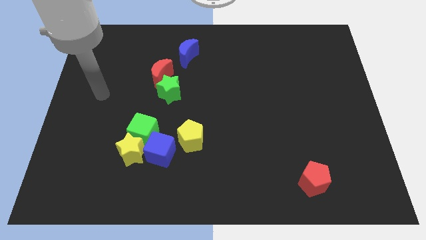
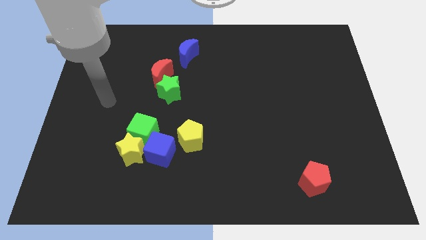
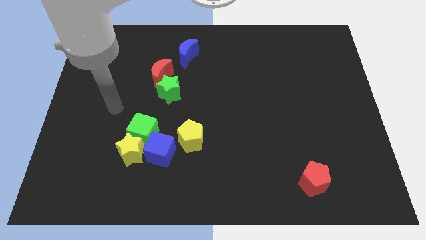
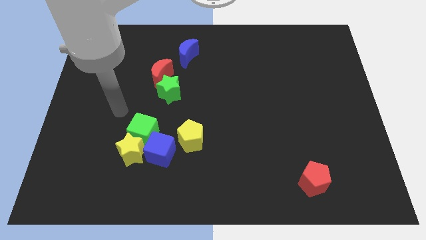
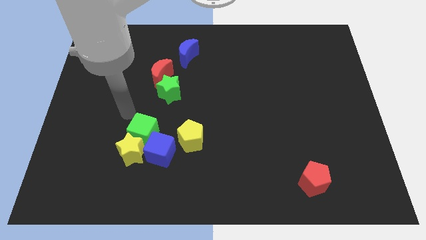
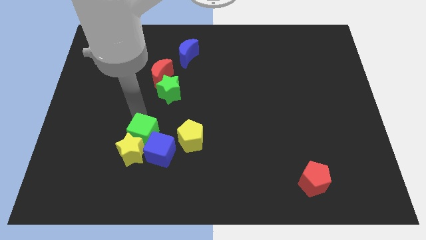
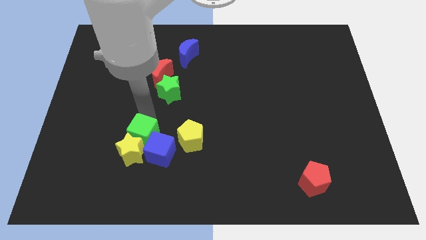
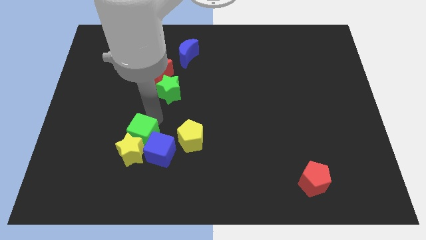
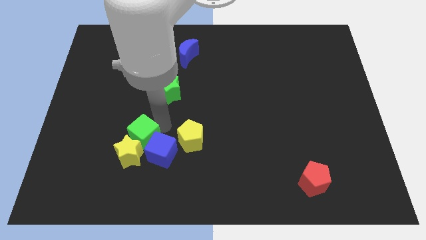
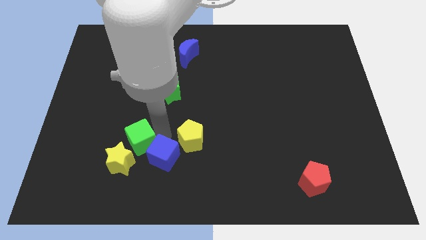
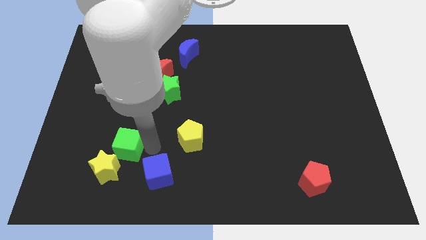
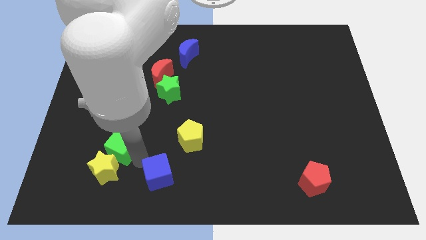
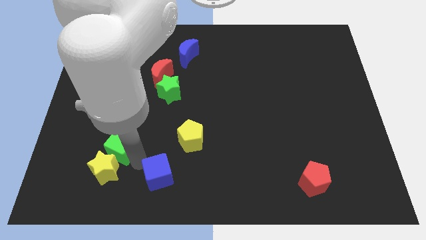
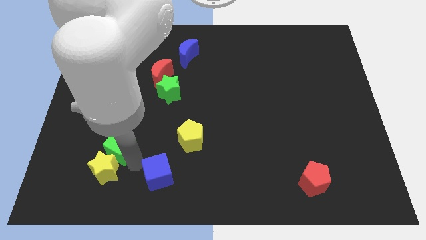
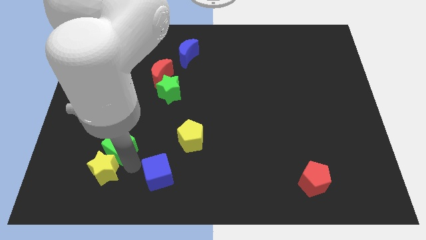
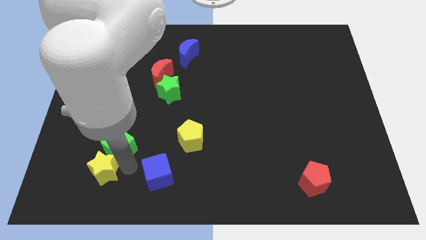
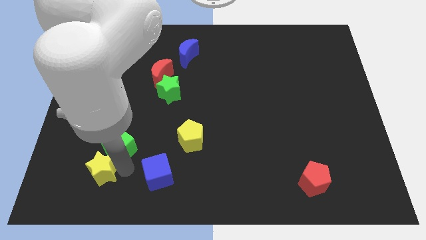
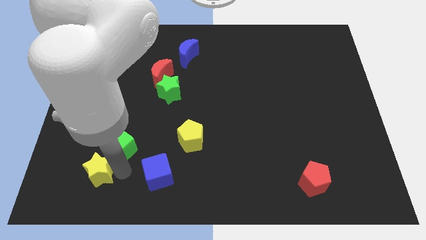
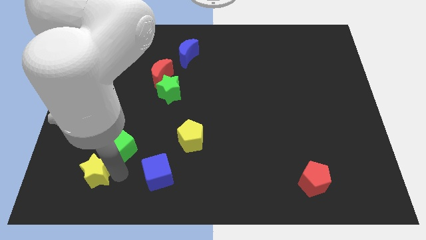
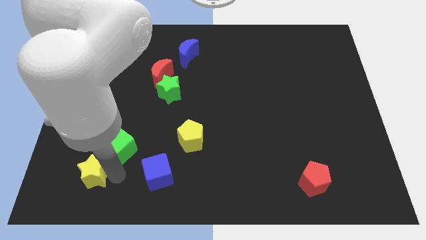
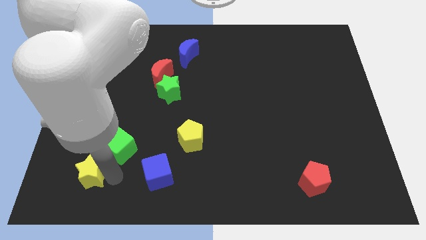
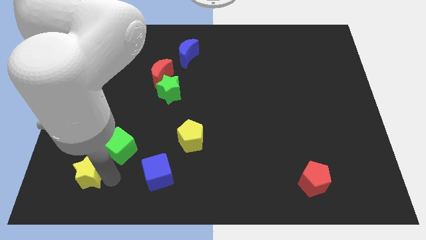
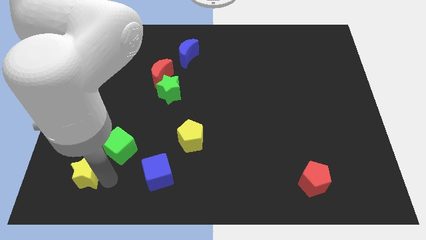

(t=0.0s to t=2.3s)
separate the yellow star from the green cube and blue cube

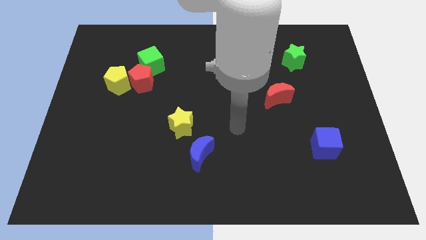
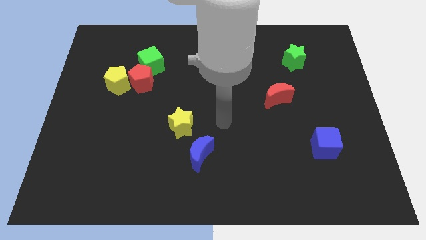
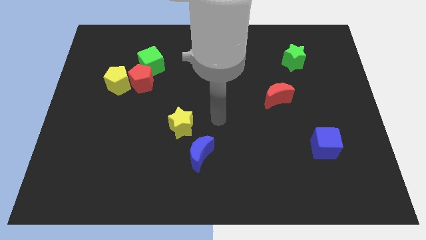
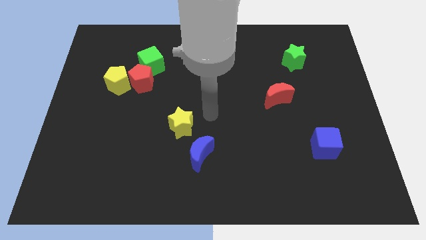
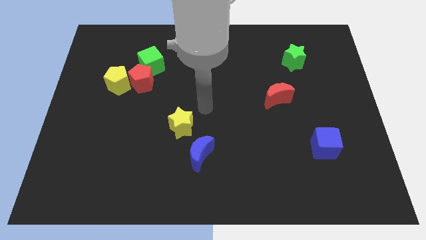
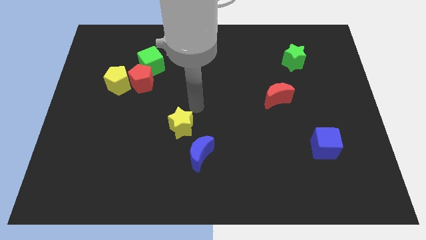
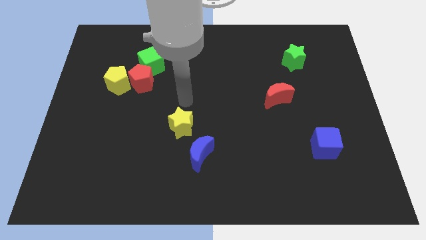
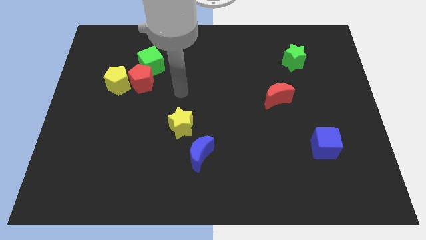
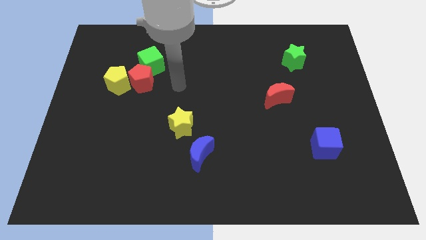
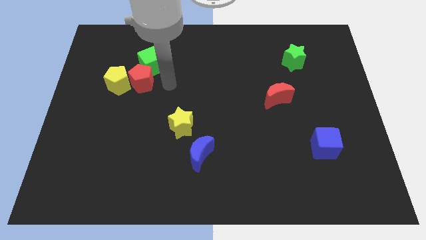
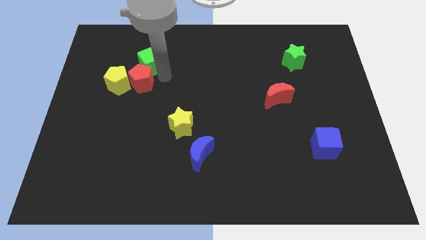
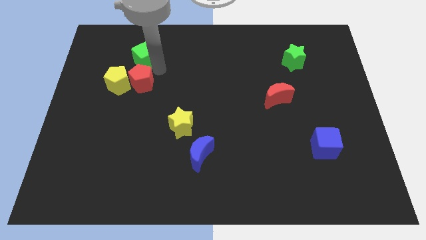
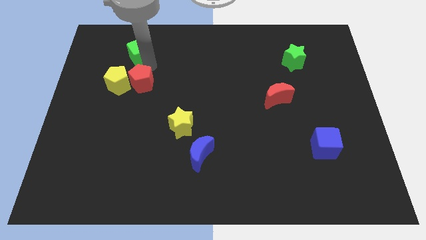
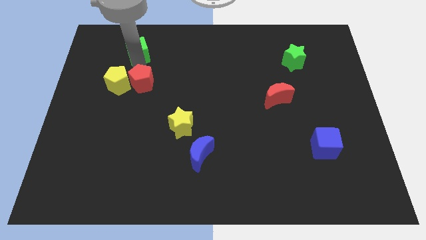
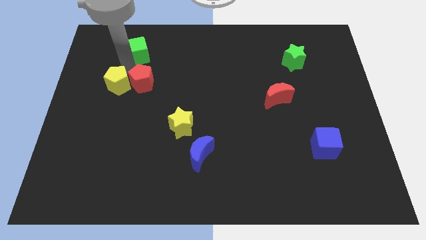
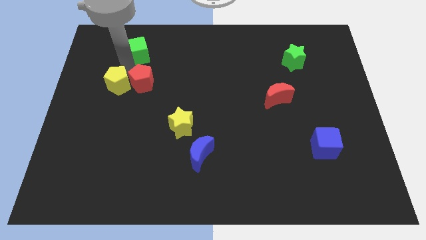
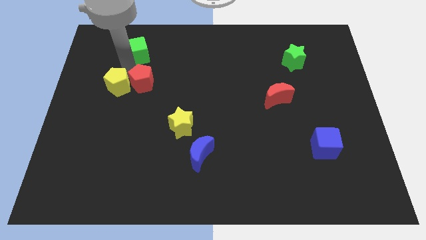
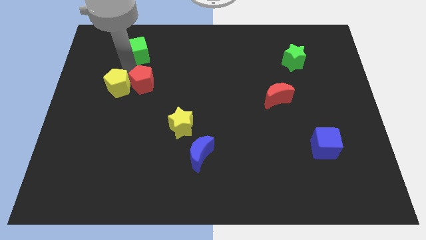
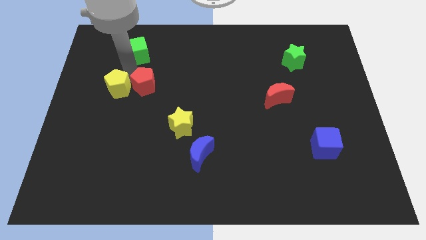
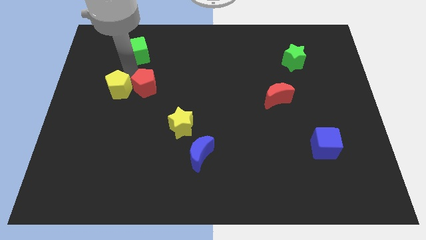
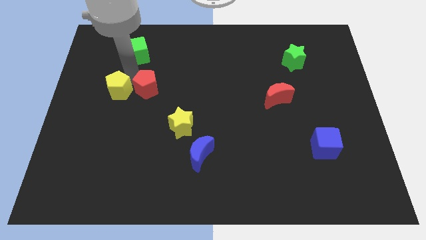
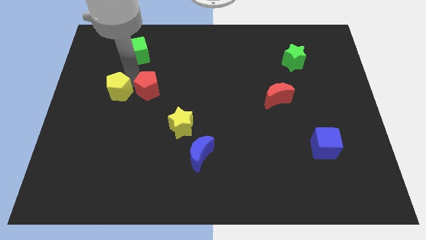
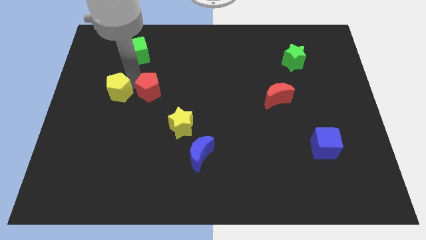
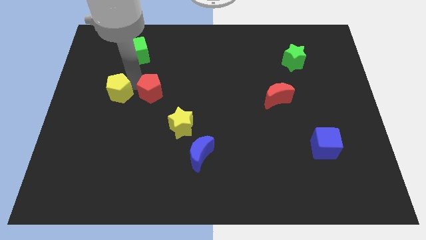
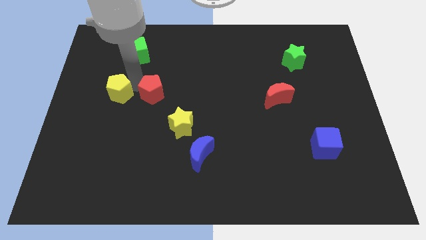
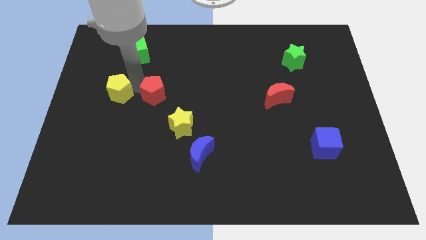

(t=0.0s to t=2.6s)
separate the red pentagon from the yellow pentagon and green cube

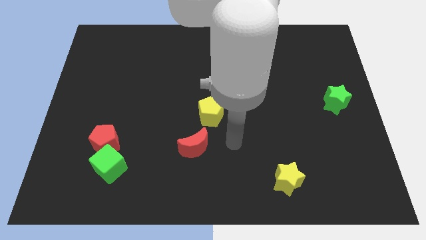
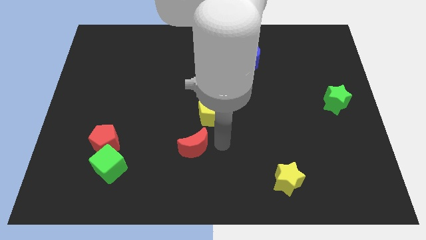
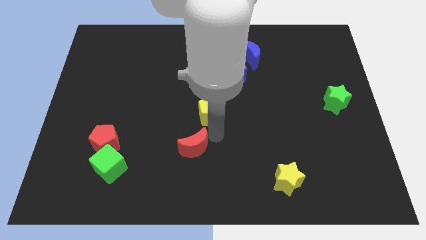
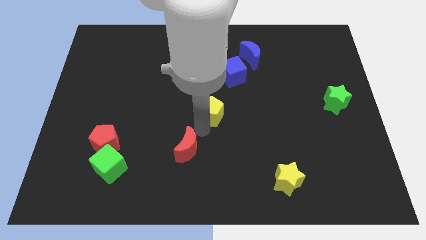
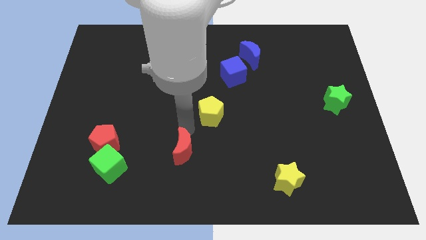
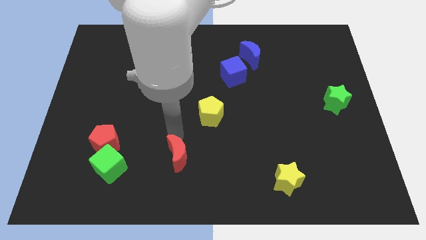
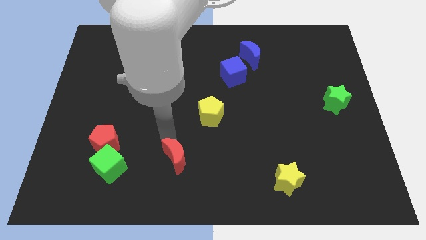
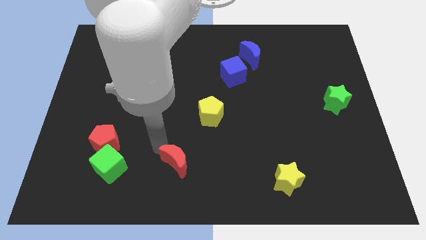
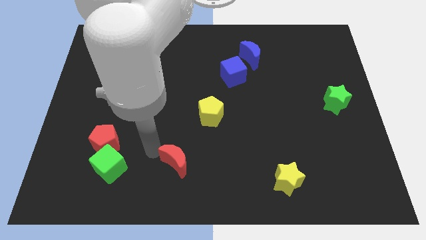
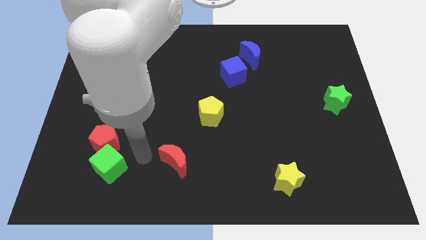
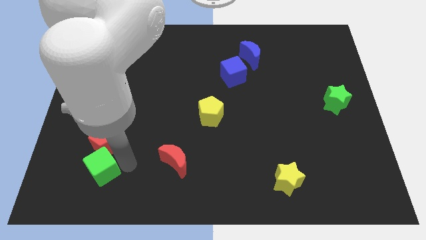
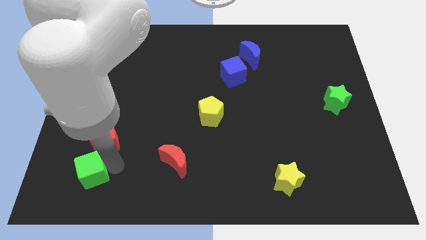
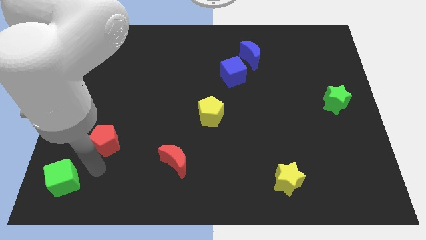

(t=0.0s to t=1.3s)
move the red pentagon away from the green cube

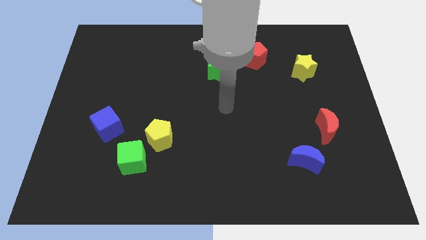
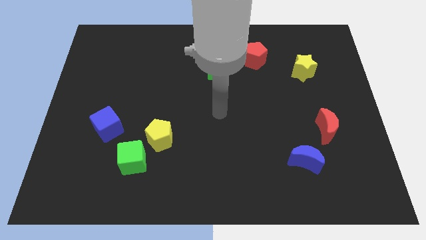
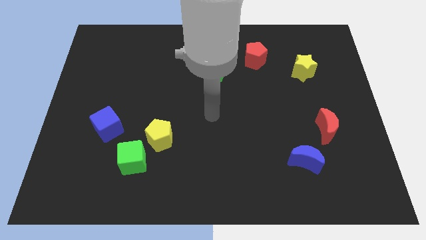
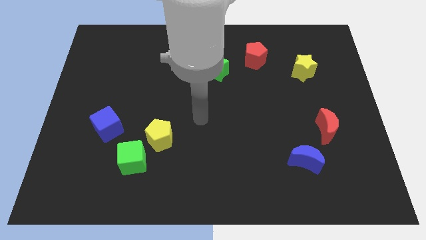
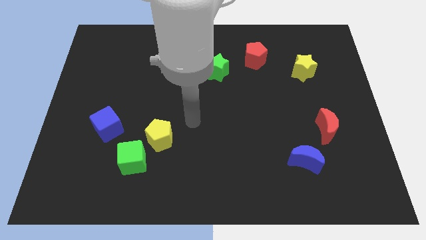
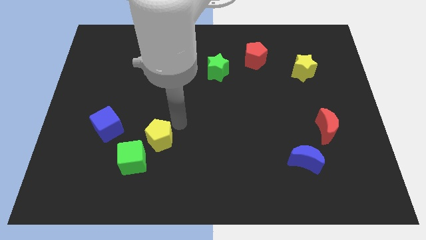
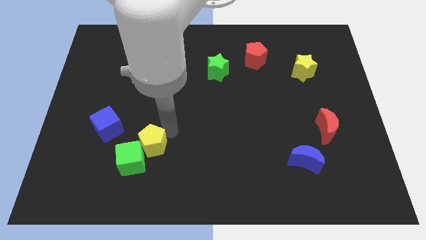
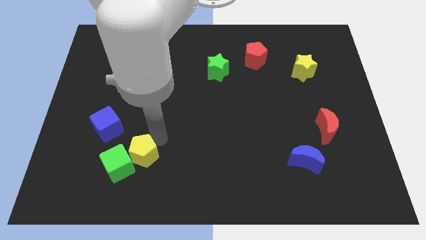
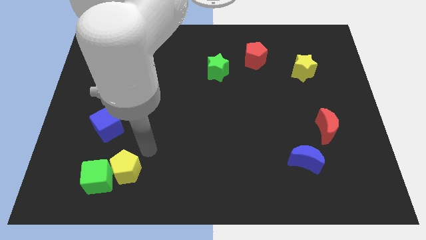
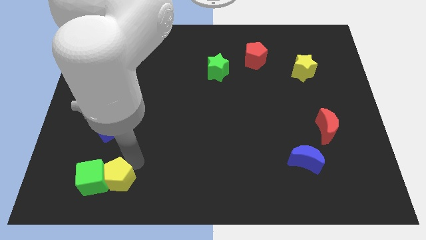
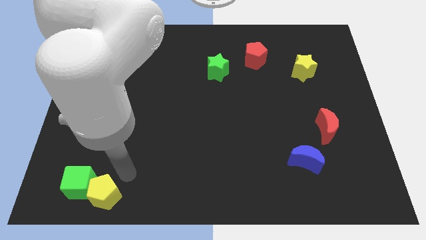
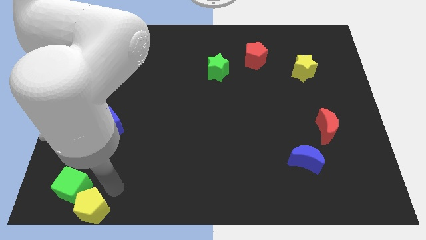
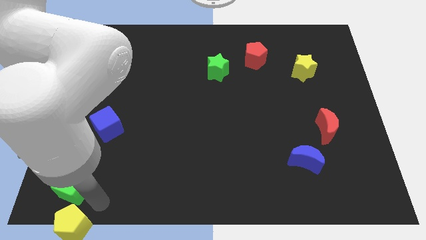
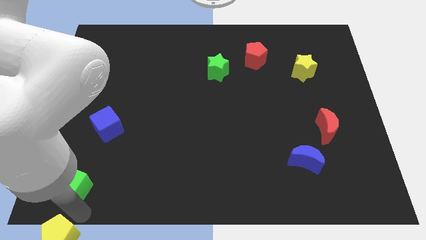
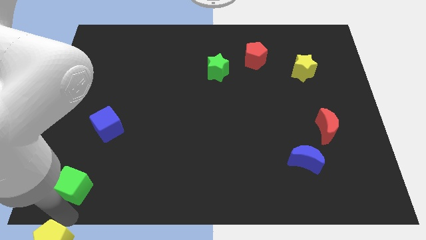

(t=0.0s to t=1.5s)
move the green cube away from the yellow pentagon

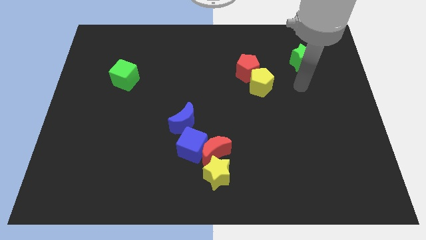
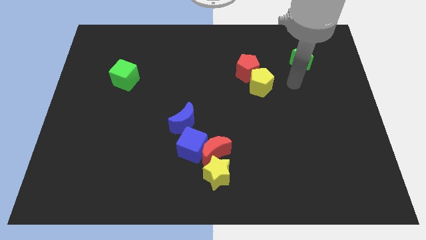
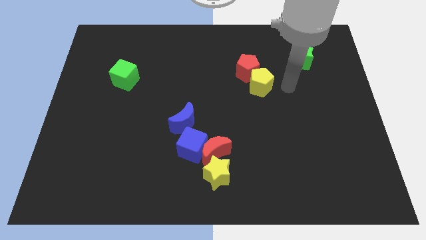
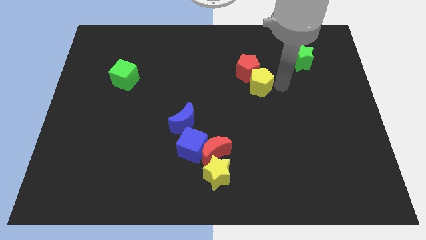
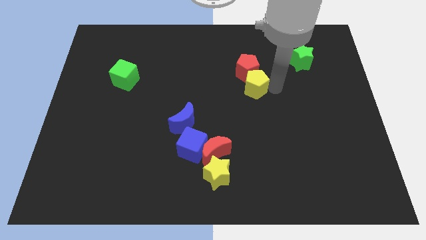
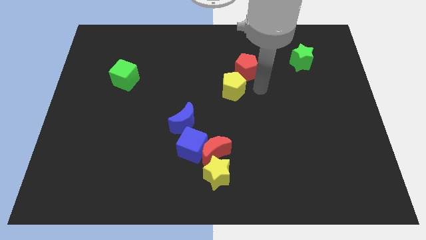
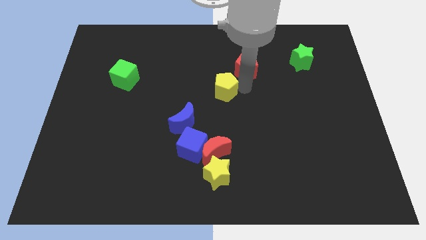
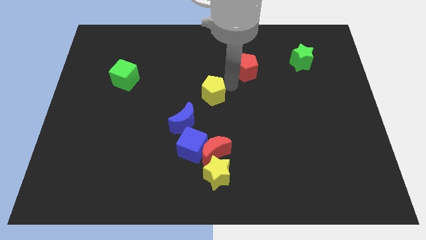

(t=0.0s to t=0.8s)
pull the red pentagon apart from the yellow pentagon

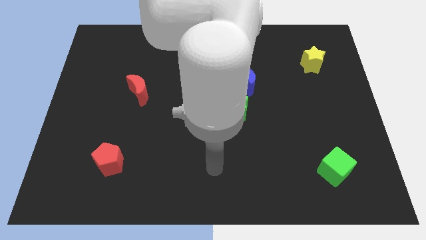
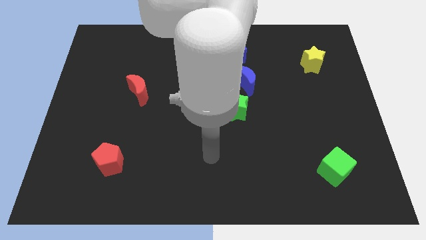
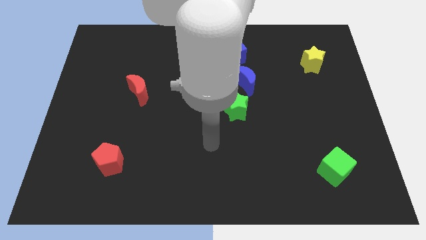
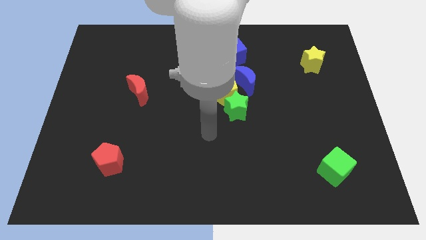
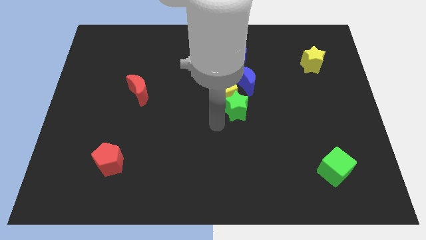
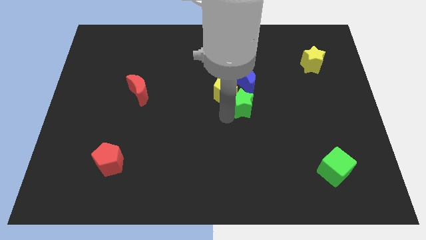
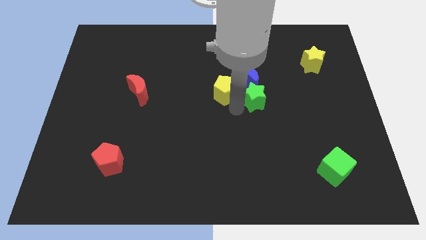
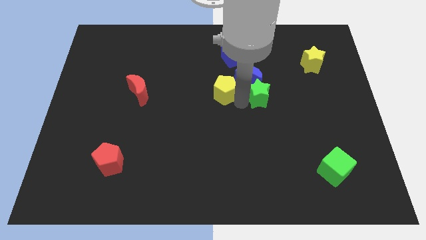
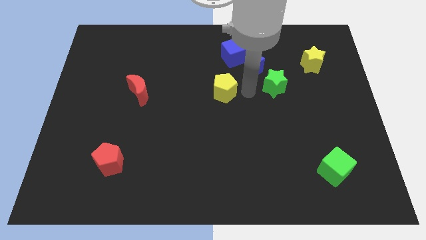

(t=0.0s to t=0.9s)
move the yellow pentagon away from the green star and blue moon
